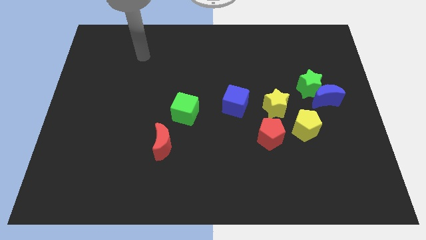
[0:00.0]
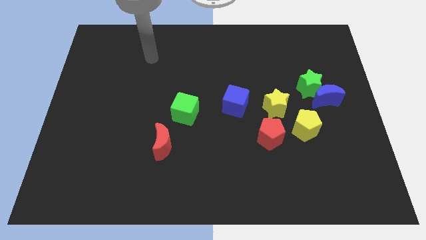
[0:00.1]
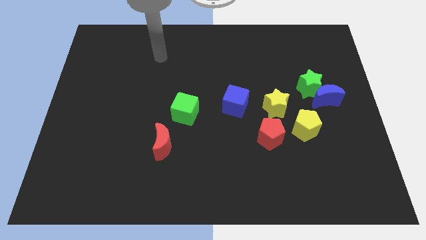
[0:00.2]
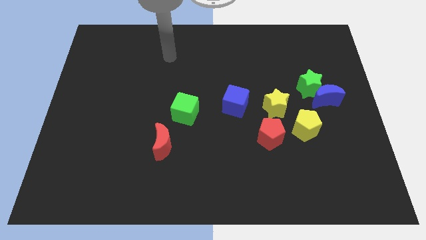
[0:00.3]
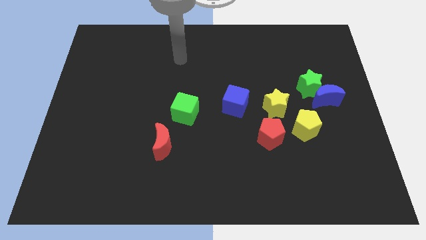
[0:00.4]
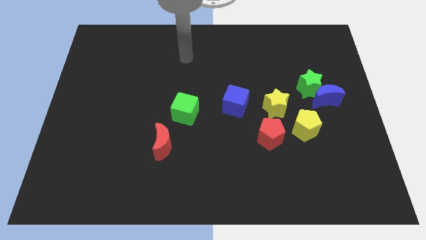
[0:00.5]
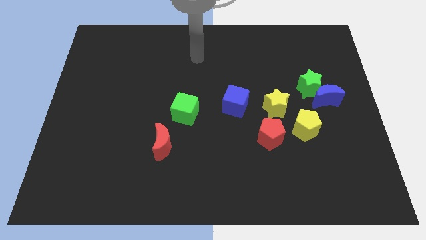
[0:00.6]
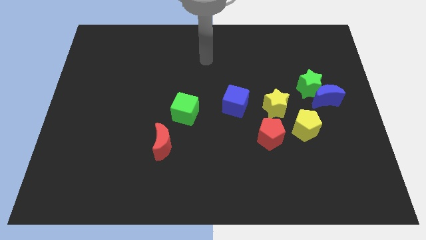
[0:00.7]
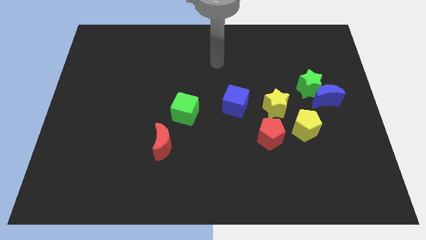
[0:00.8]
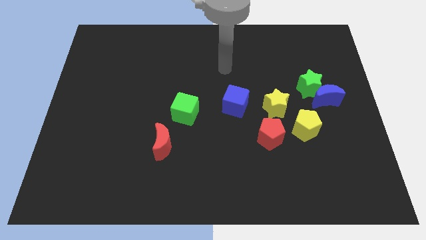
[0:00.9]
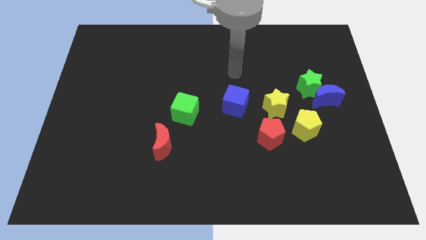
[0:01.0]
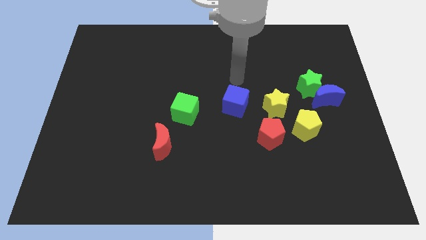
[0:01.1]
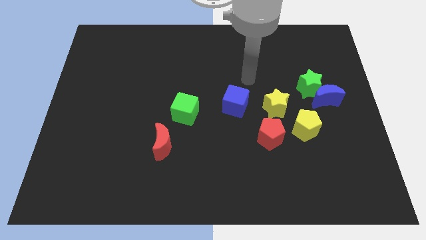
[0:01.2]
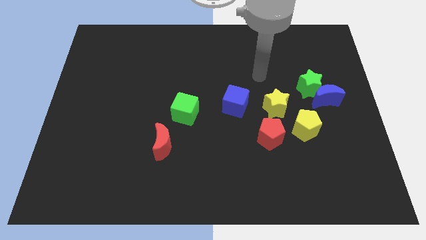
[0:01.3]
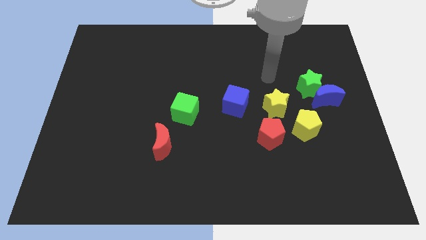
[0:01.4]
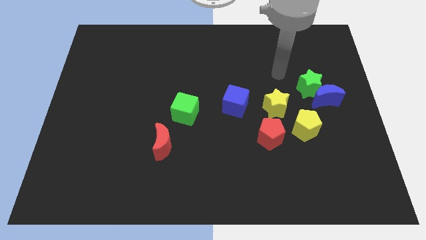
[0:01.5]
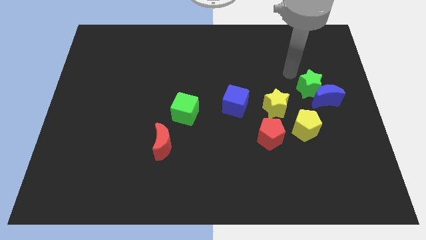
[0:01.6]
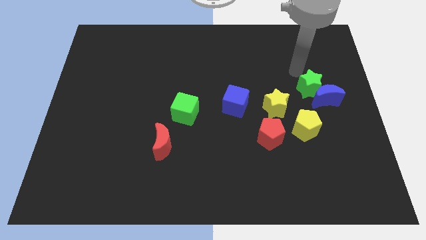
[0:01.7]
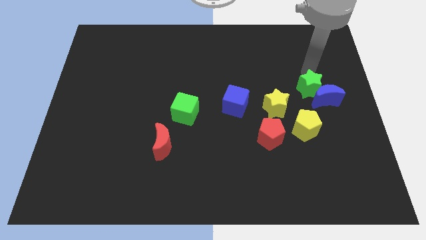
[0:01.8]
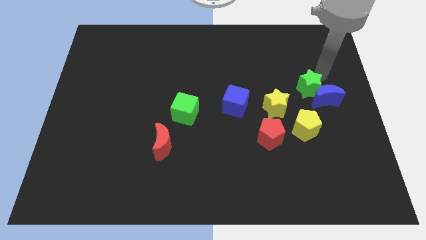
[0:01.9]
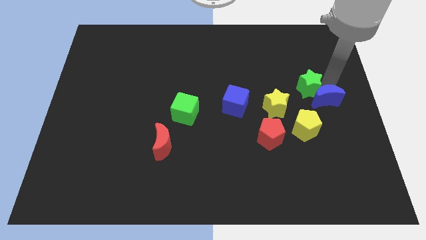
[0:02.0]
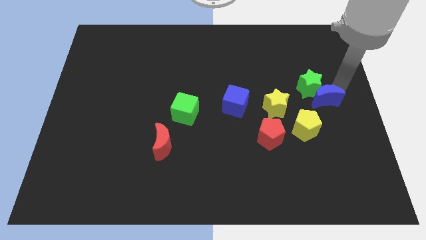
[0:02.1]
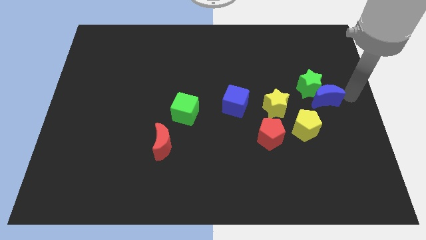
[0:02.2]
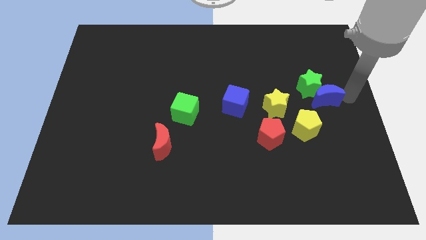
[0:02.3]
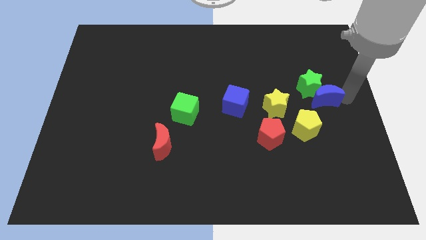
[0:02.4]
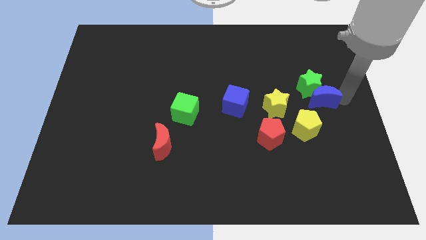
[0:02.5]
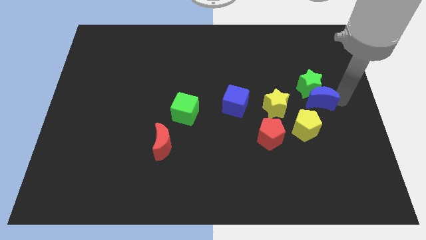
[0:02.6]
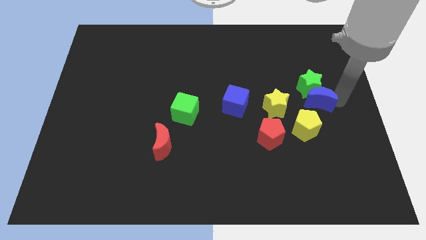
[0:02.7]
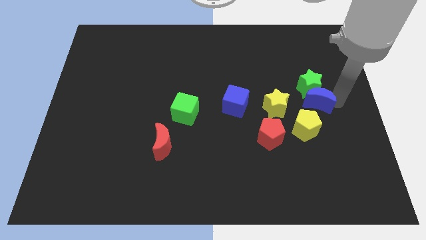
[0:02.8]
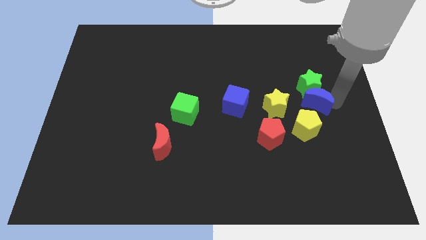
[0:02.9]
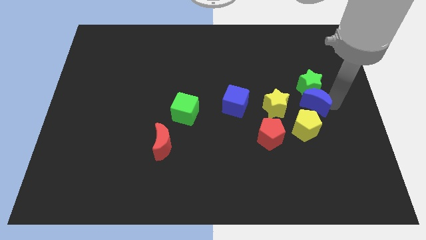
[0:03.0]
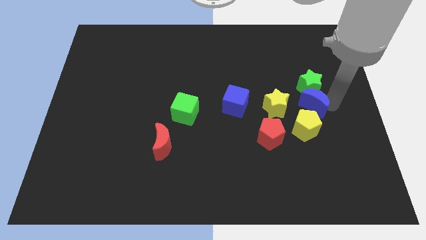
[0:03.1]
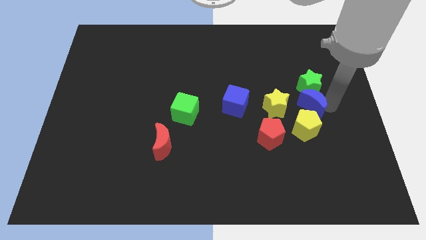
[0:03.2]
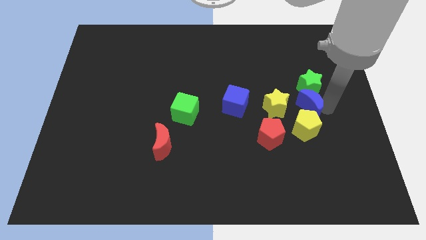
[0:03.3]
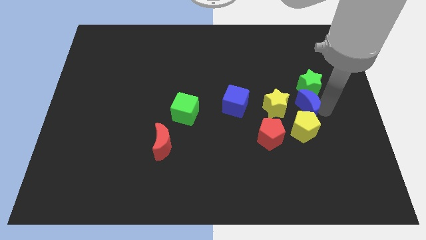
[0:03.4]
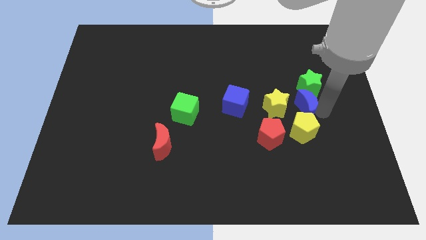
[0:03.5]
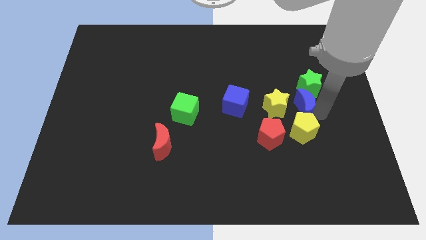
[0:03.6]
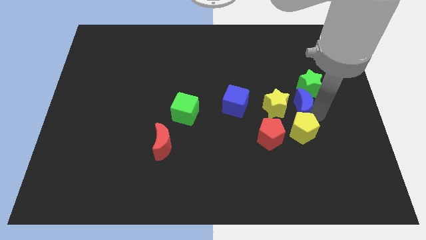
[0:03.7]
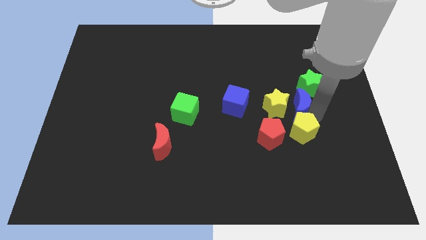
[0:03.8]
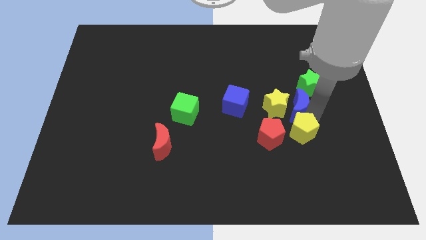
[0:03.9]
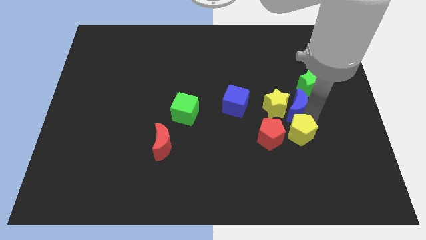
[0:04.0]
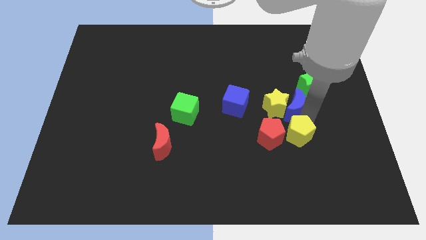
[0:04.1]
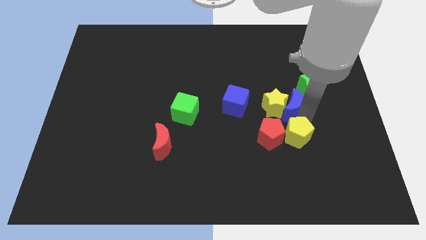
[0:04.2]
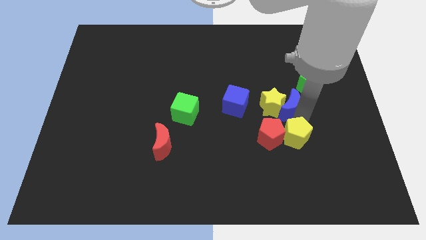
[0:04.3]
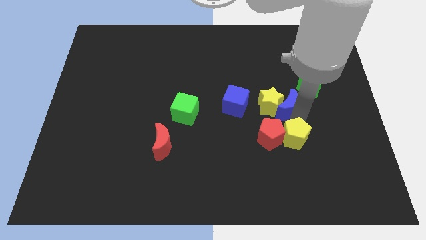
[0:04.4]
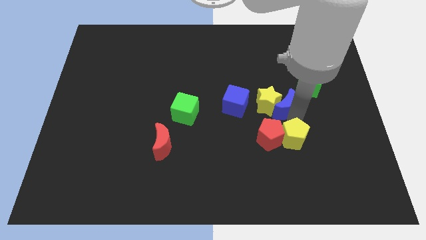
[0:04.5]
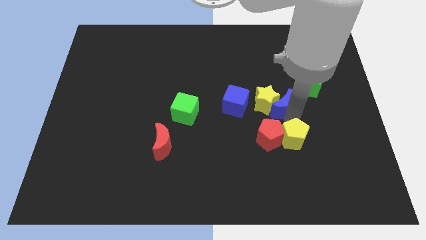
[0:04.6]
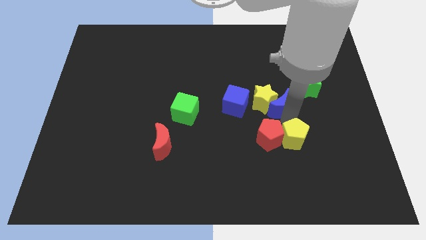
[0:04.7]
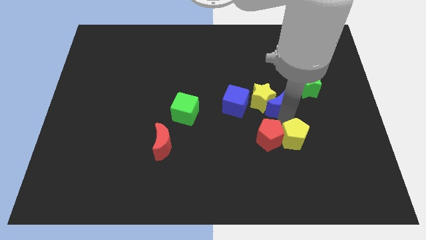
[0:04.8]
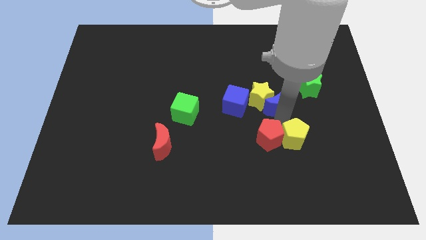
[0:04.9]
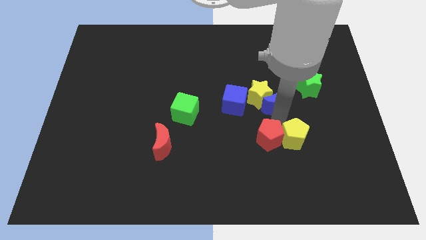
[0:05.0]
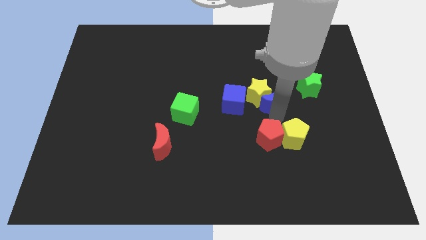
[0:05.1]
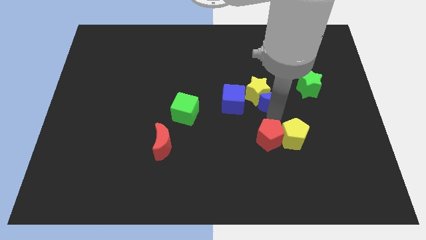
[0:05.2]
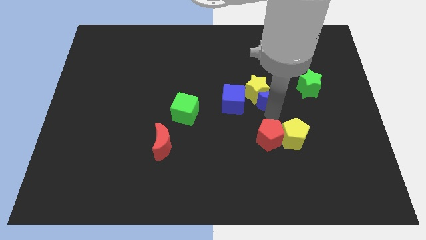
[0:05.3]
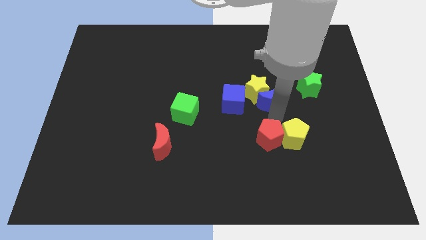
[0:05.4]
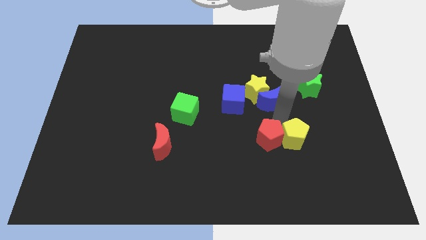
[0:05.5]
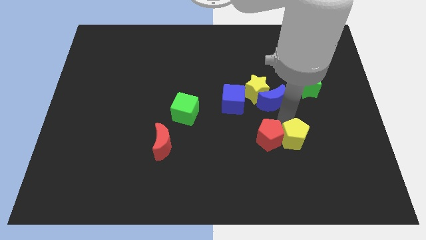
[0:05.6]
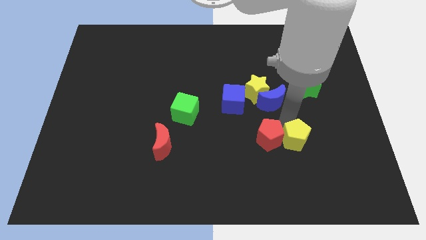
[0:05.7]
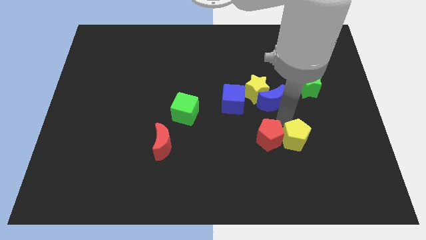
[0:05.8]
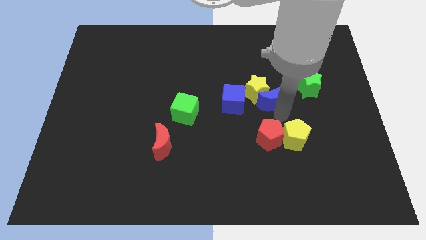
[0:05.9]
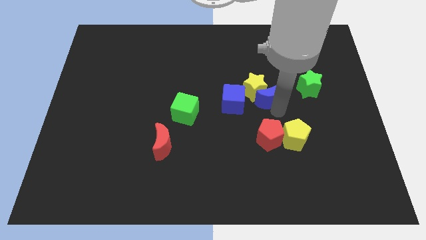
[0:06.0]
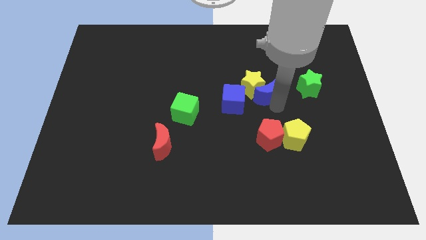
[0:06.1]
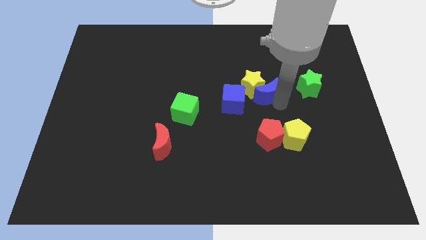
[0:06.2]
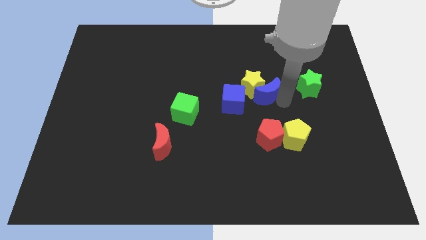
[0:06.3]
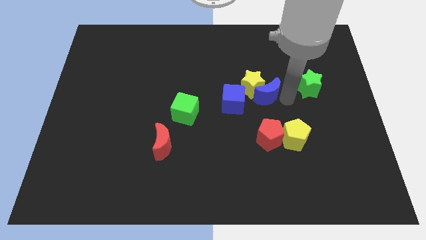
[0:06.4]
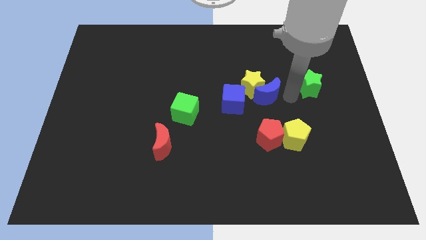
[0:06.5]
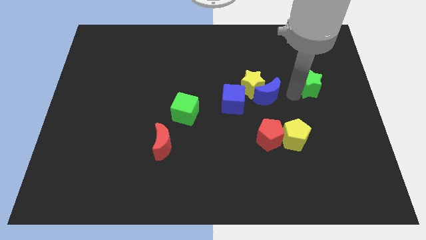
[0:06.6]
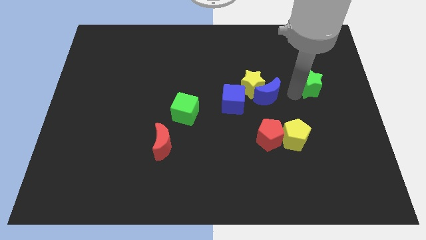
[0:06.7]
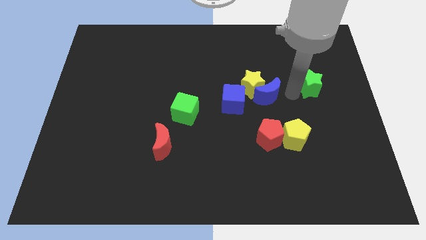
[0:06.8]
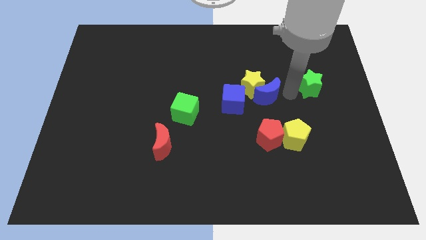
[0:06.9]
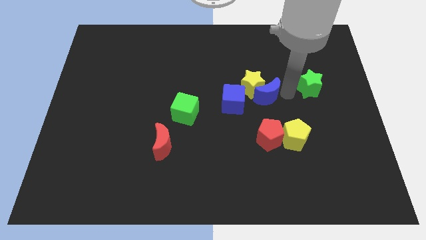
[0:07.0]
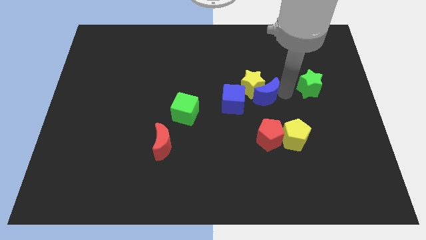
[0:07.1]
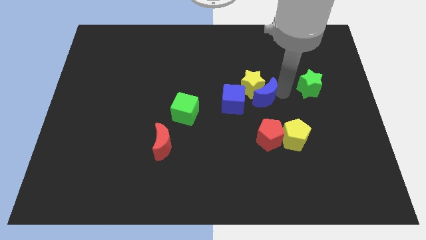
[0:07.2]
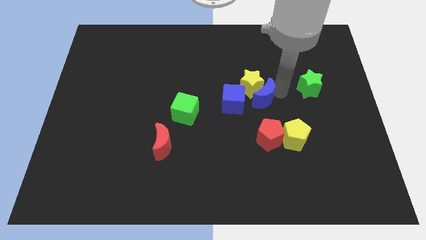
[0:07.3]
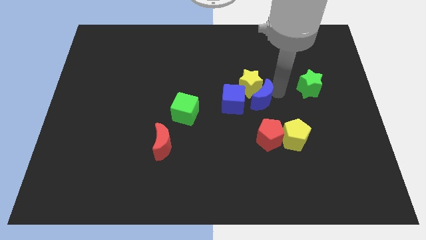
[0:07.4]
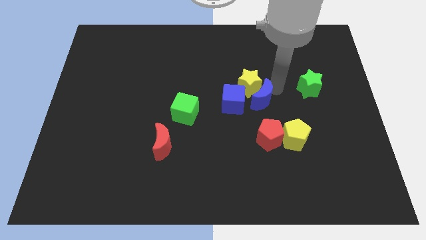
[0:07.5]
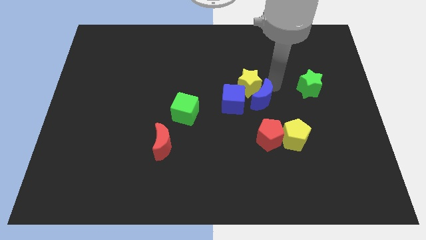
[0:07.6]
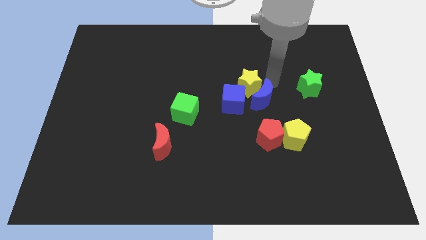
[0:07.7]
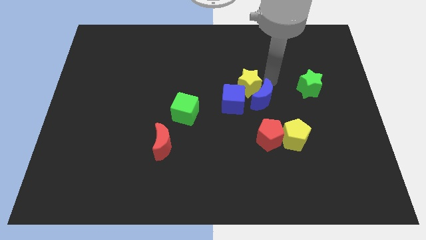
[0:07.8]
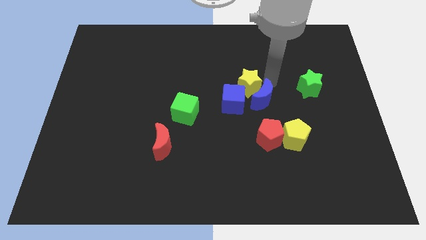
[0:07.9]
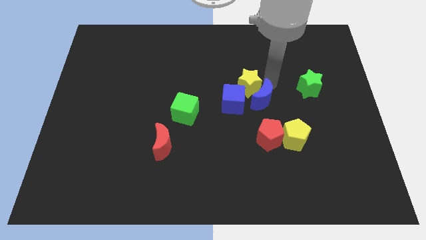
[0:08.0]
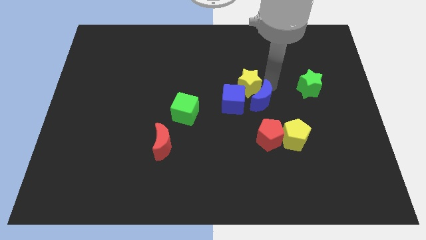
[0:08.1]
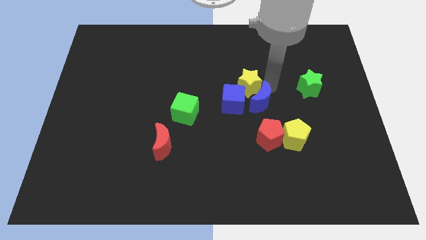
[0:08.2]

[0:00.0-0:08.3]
put the blue moon diagonally down and to the right of the blue cube
